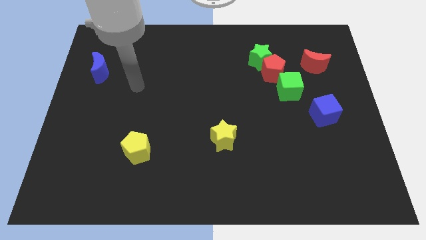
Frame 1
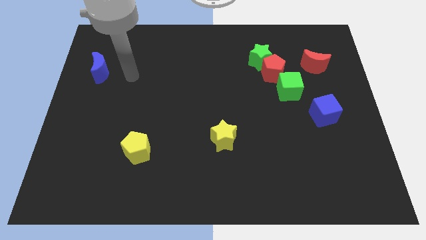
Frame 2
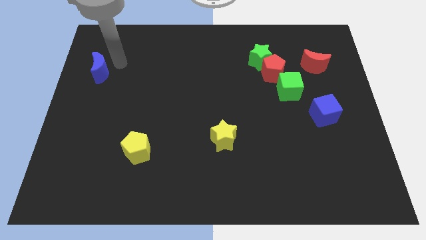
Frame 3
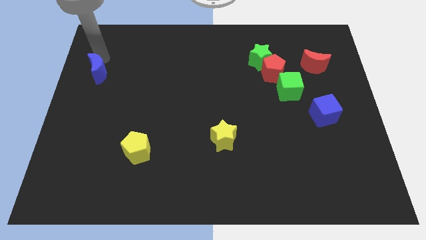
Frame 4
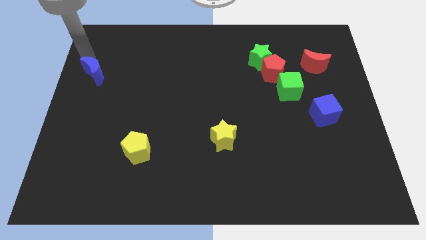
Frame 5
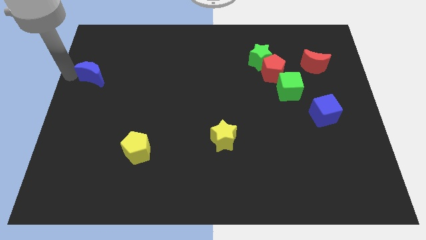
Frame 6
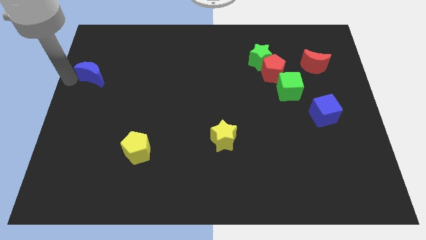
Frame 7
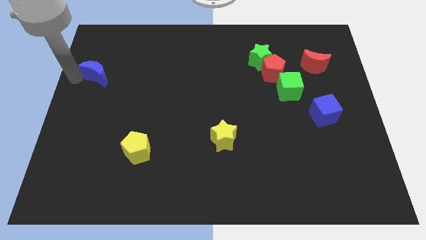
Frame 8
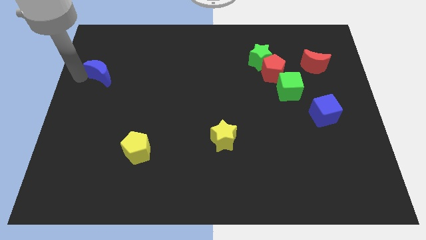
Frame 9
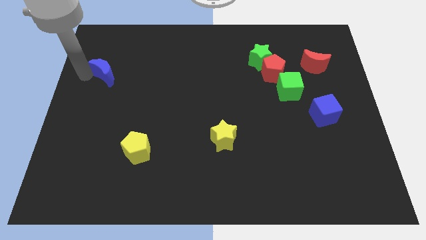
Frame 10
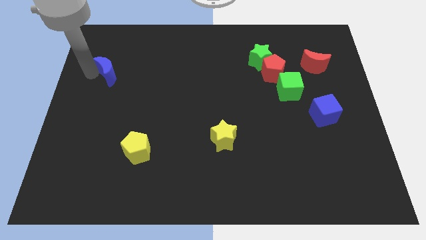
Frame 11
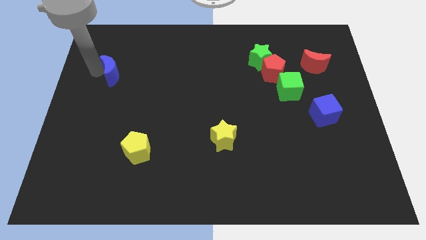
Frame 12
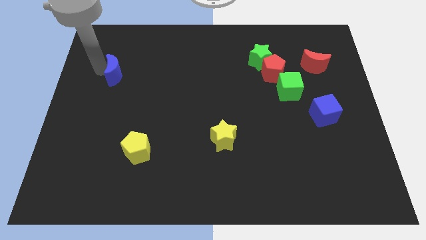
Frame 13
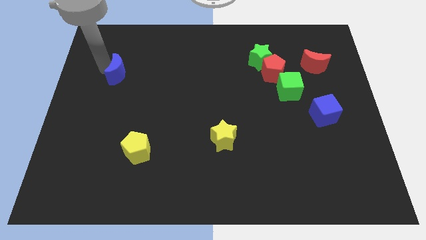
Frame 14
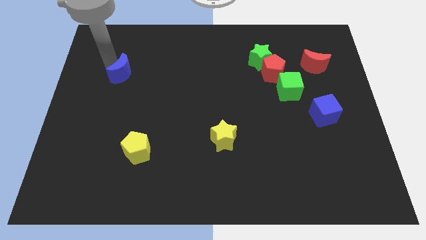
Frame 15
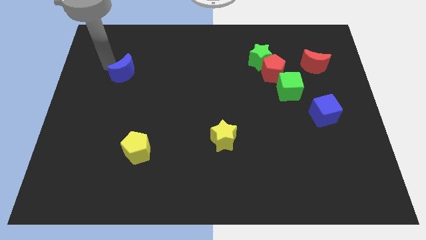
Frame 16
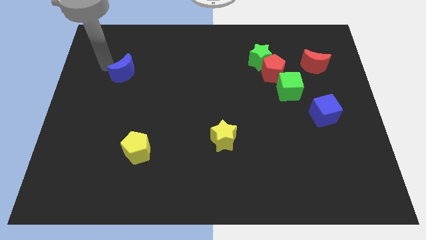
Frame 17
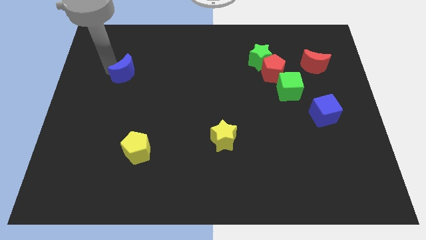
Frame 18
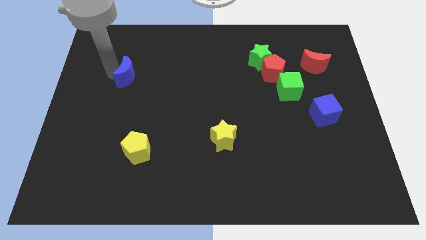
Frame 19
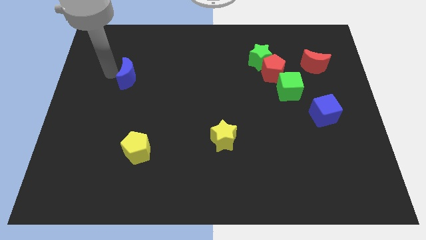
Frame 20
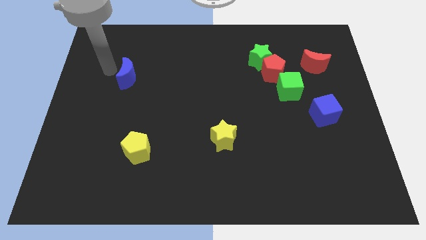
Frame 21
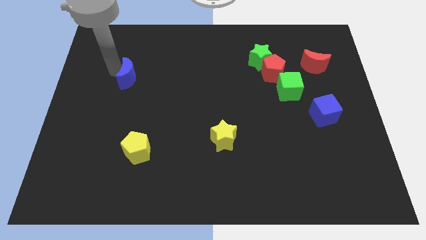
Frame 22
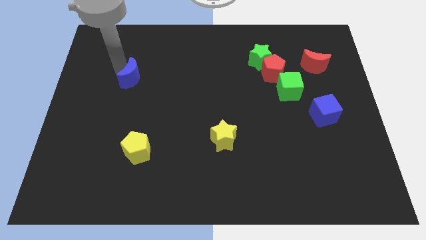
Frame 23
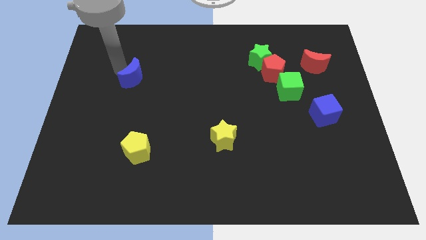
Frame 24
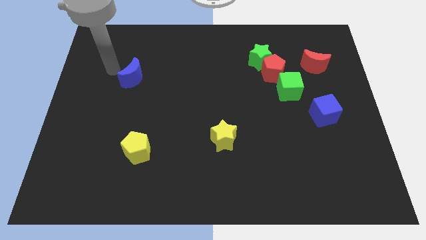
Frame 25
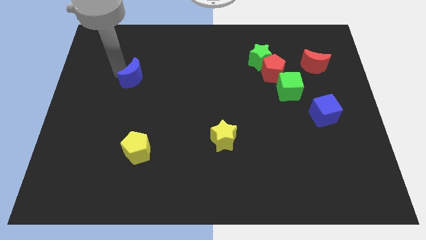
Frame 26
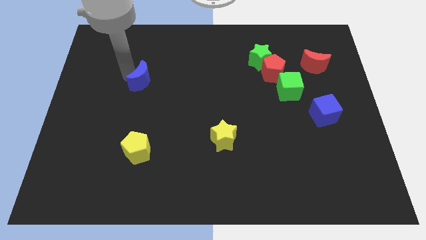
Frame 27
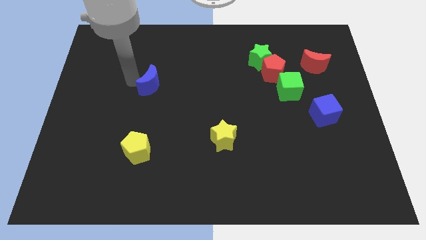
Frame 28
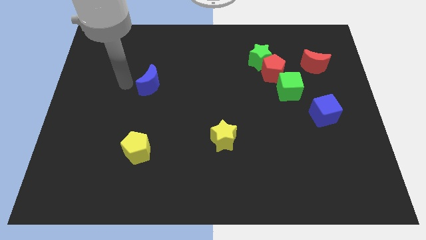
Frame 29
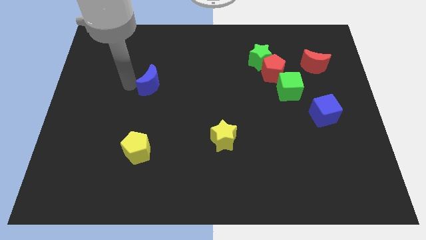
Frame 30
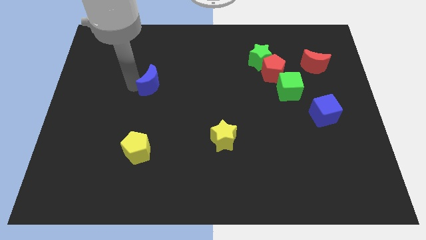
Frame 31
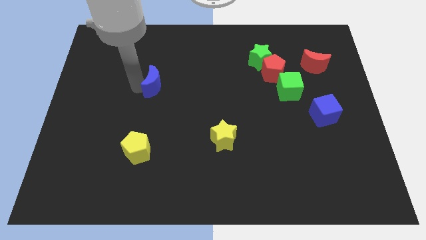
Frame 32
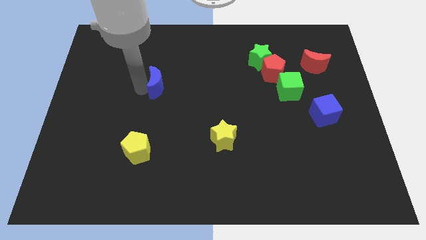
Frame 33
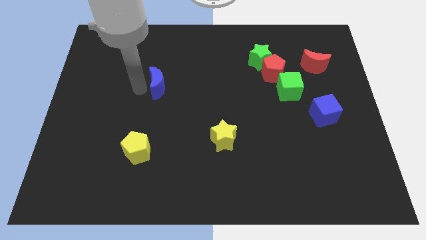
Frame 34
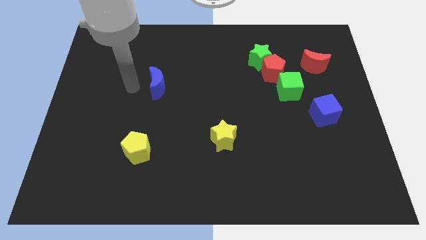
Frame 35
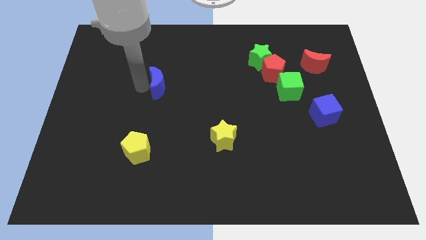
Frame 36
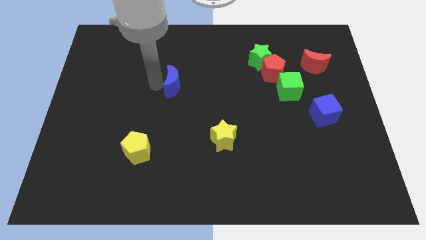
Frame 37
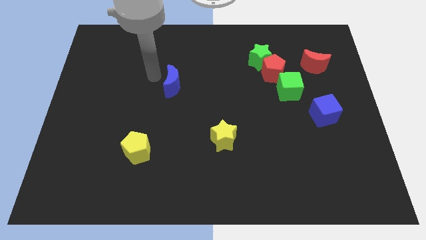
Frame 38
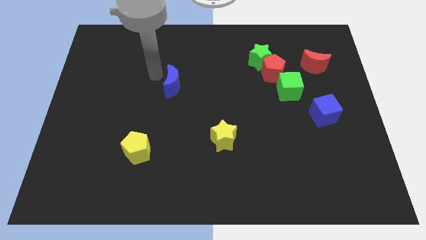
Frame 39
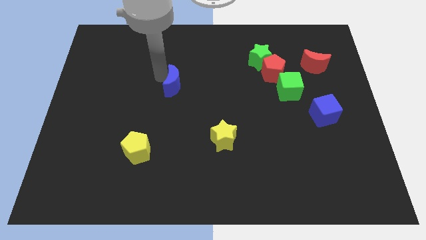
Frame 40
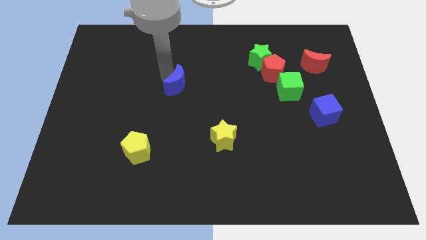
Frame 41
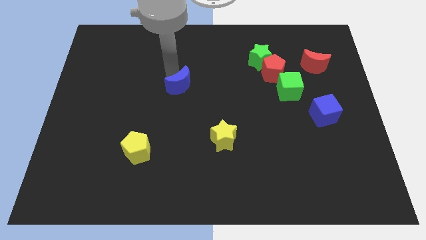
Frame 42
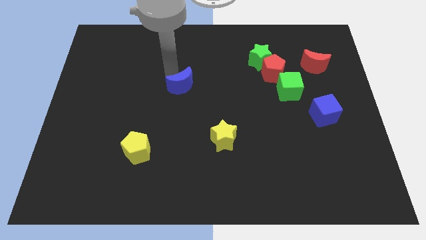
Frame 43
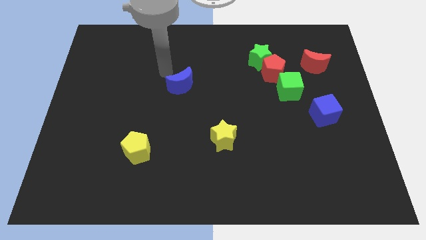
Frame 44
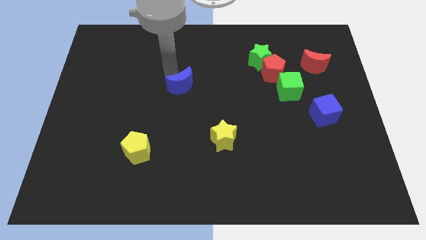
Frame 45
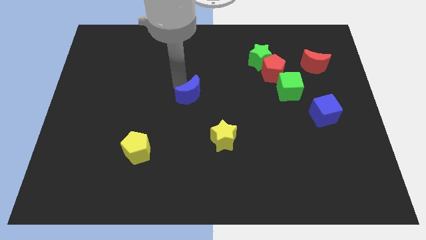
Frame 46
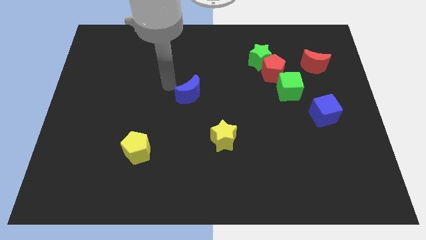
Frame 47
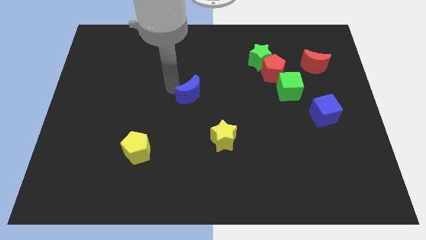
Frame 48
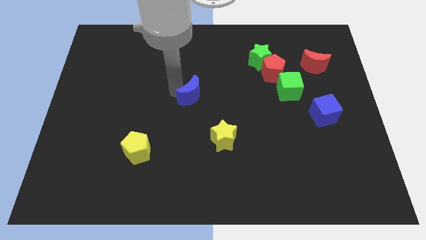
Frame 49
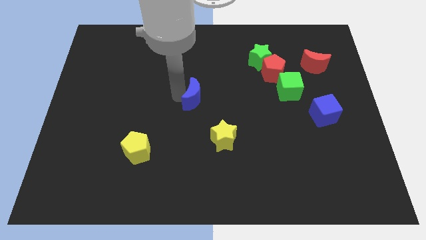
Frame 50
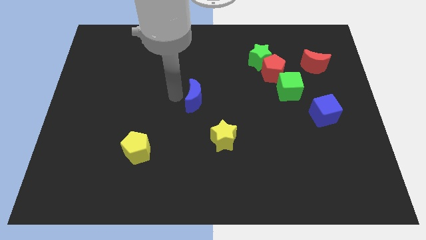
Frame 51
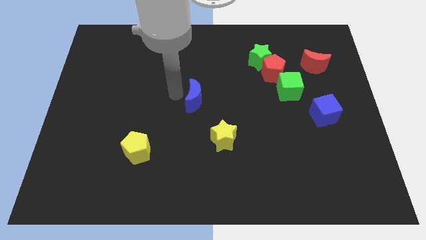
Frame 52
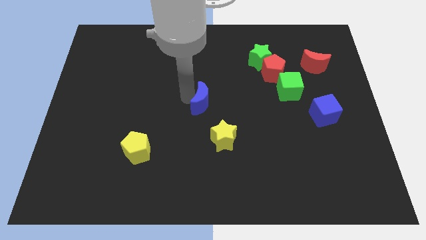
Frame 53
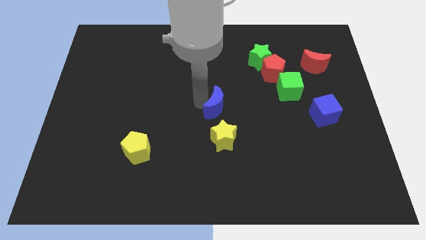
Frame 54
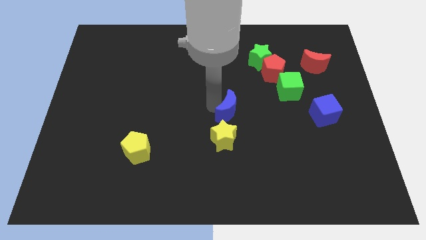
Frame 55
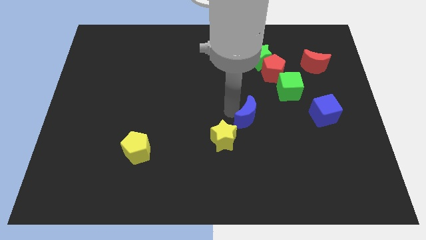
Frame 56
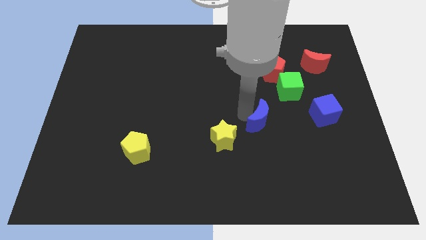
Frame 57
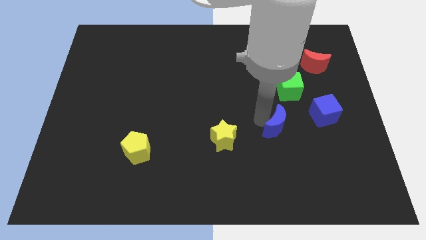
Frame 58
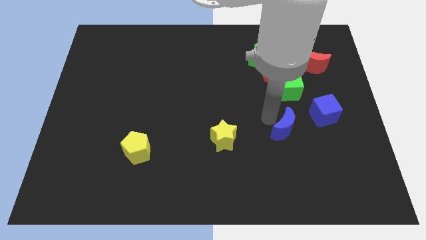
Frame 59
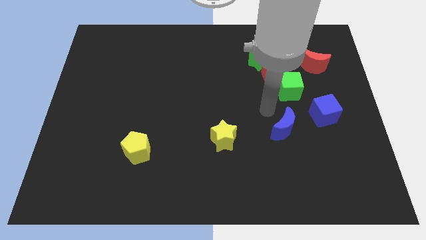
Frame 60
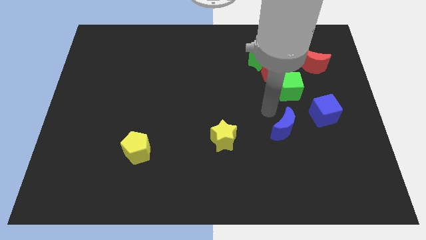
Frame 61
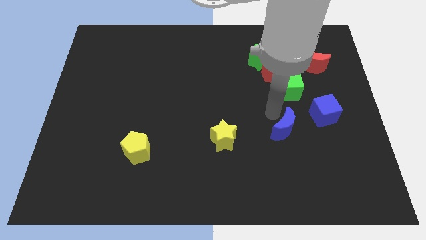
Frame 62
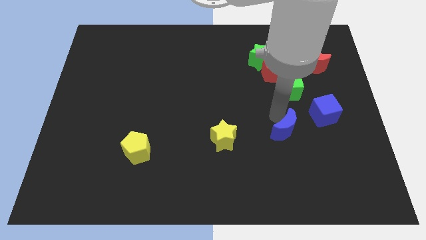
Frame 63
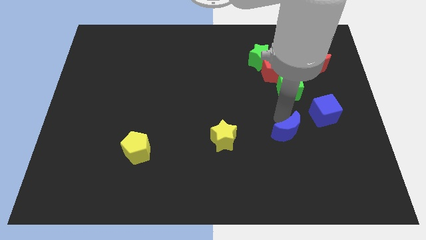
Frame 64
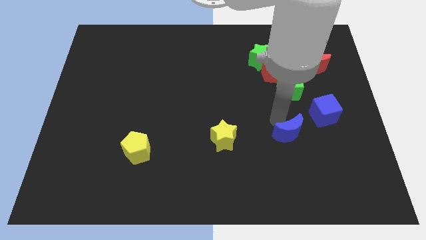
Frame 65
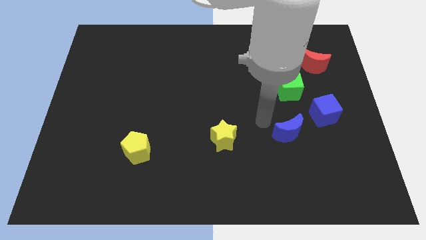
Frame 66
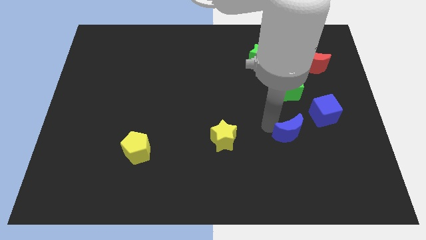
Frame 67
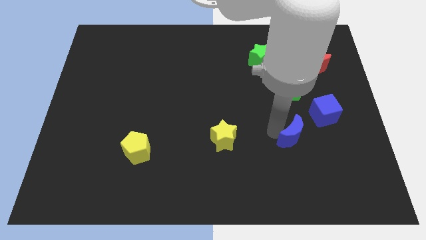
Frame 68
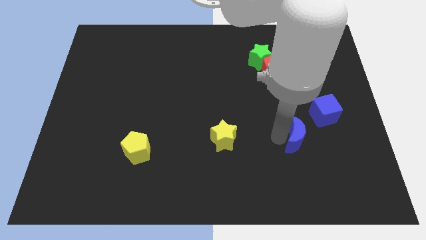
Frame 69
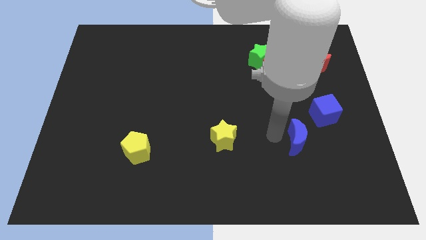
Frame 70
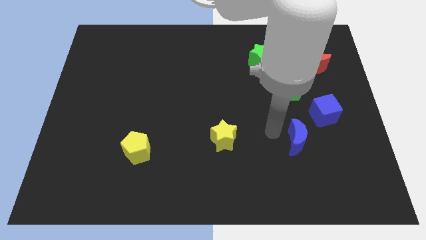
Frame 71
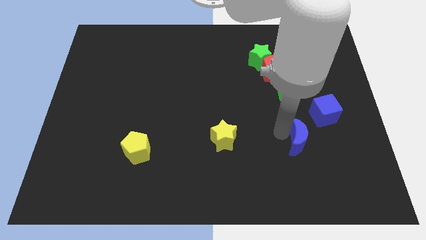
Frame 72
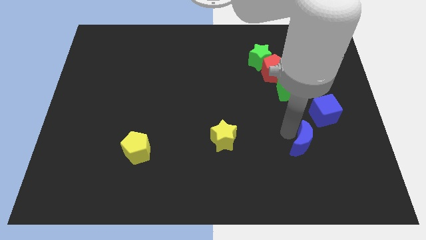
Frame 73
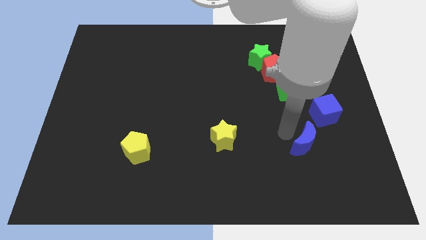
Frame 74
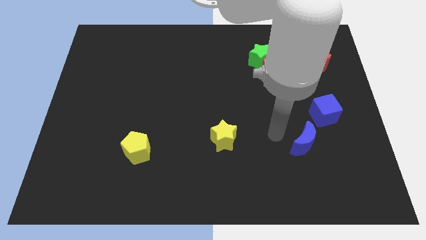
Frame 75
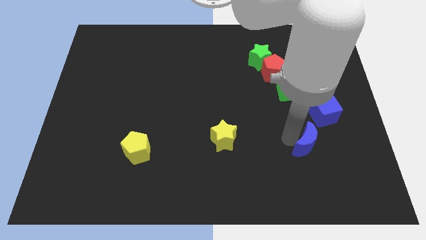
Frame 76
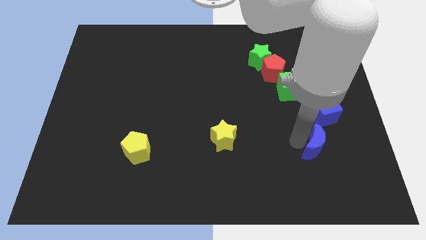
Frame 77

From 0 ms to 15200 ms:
move the blue moon to the bottom of the blue cube
